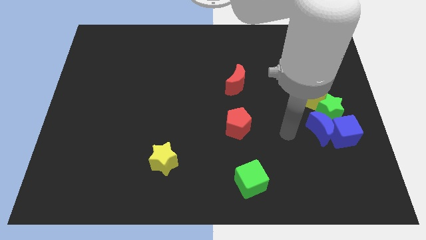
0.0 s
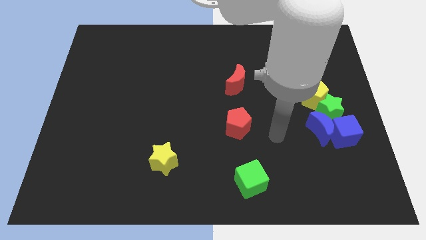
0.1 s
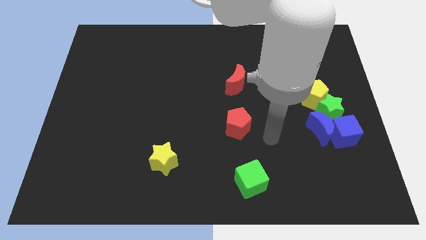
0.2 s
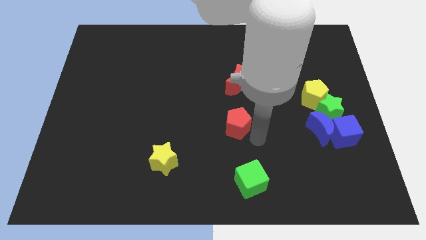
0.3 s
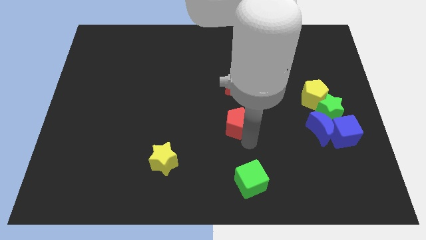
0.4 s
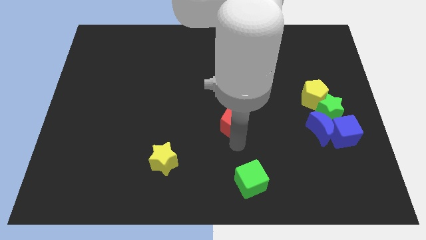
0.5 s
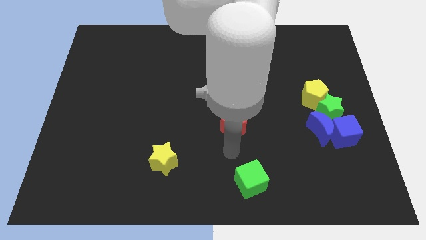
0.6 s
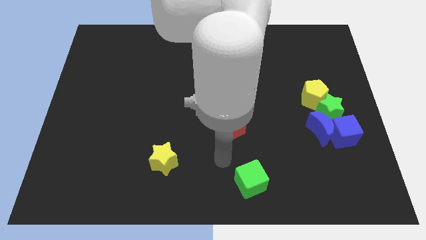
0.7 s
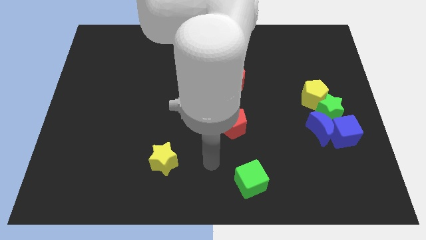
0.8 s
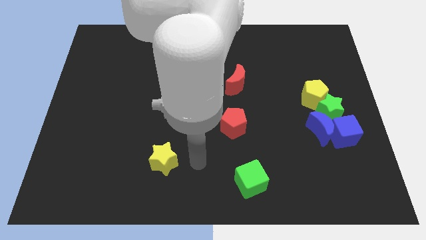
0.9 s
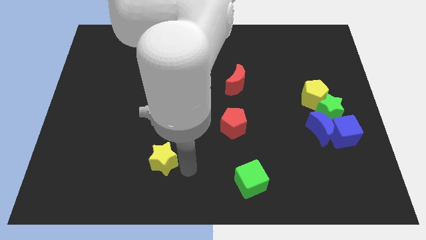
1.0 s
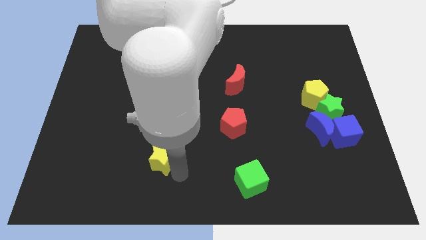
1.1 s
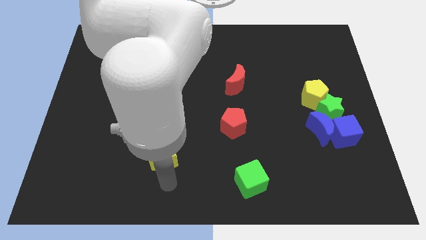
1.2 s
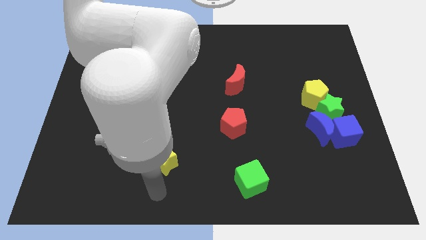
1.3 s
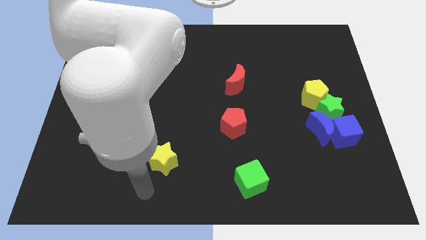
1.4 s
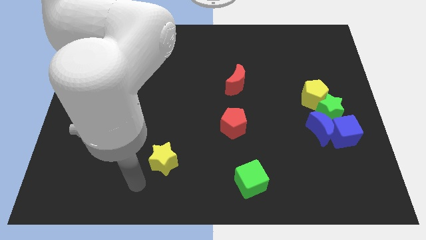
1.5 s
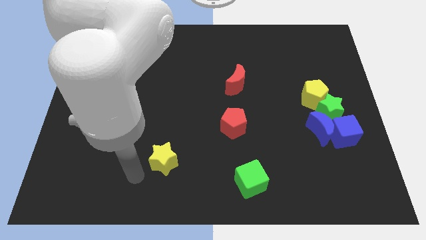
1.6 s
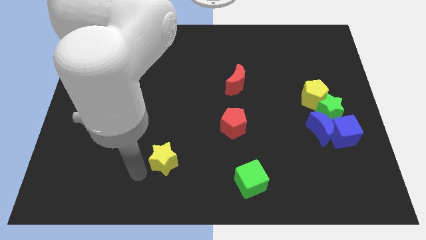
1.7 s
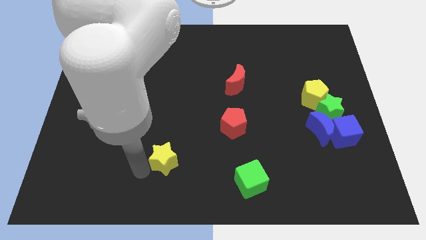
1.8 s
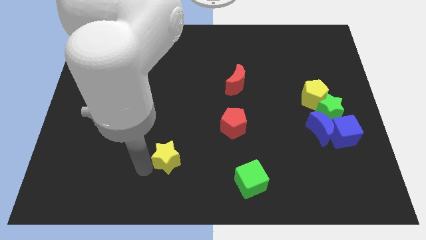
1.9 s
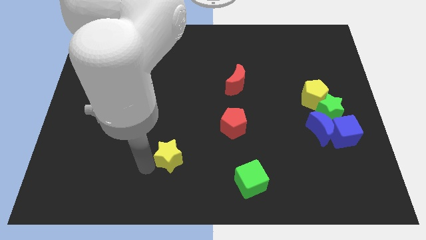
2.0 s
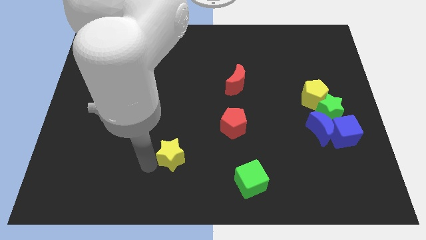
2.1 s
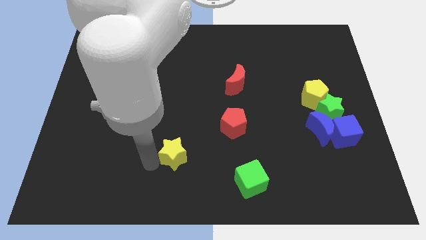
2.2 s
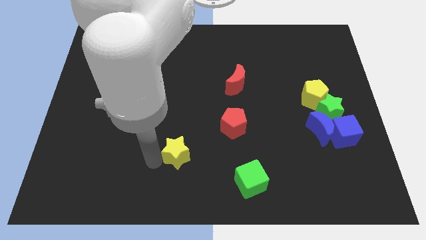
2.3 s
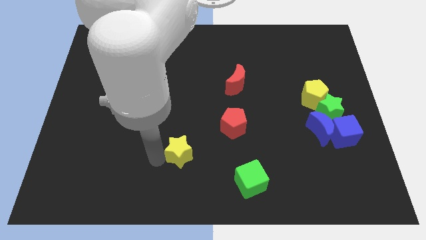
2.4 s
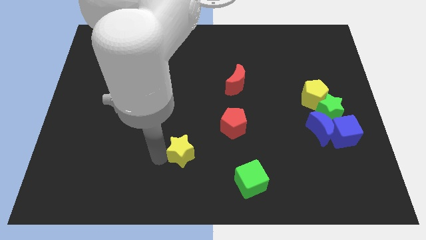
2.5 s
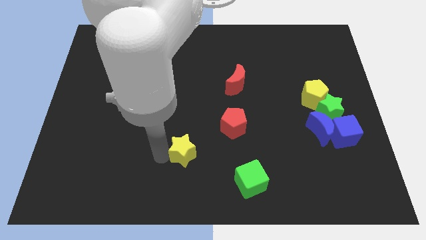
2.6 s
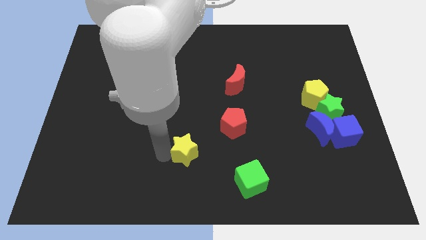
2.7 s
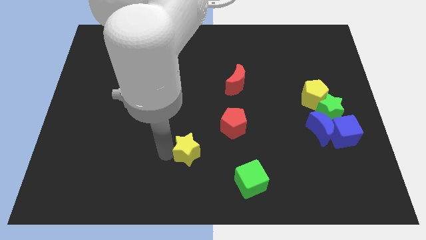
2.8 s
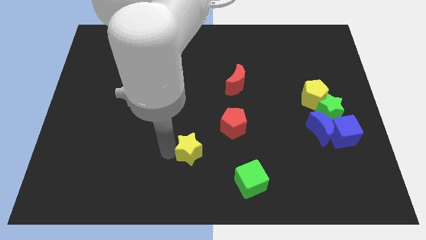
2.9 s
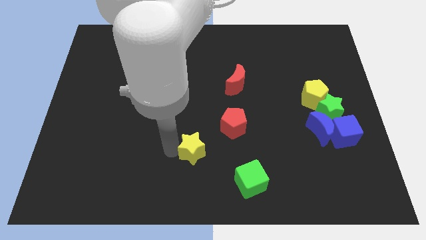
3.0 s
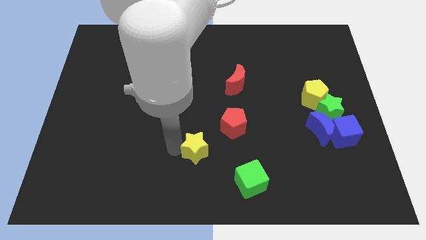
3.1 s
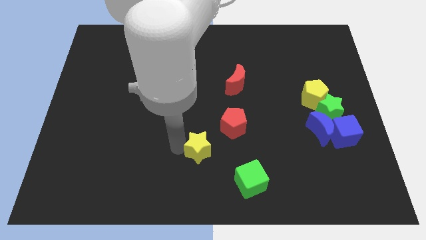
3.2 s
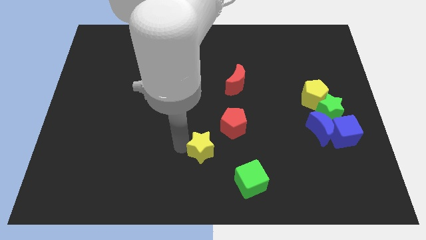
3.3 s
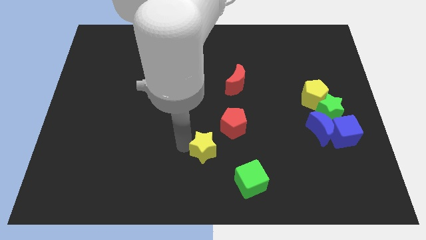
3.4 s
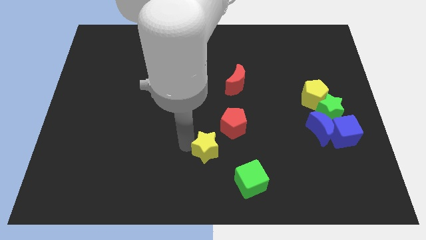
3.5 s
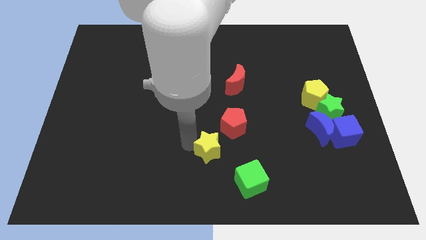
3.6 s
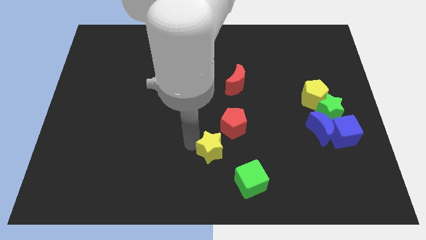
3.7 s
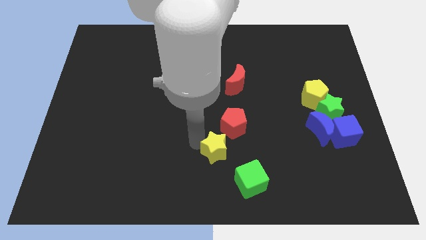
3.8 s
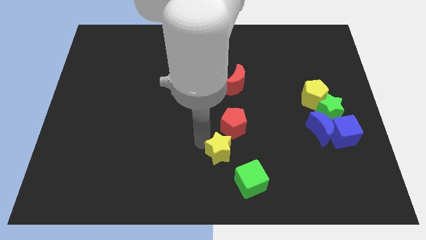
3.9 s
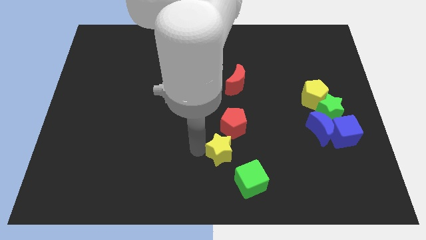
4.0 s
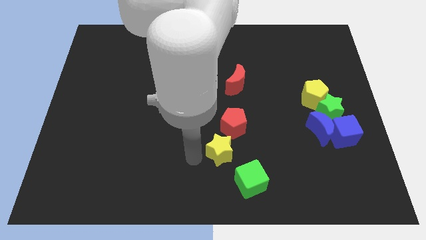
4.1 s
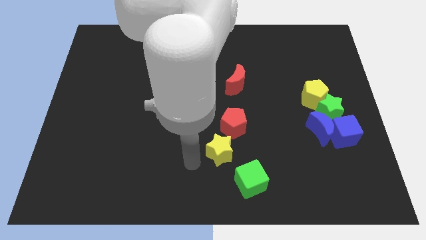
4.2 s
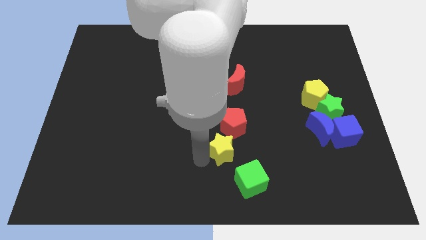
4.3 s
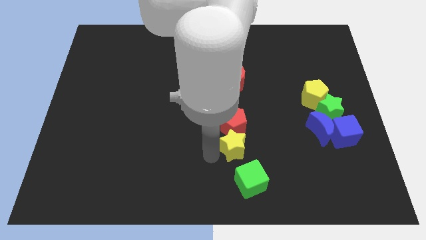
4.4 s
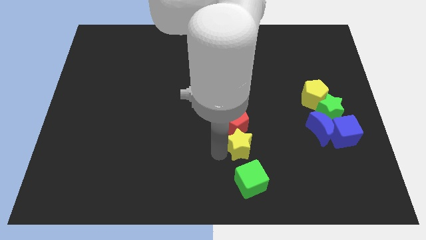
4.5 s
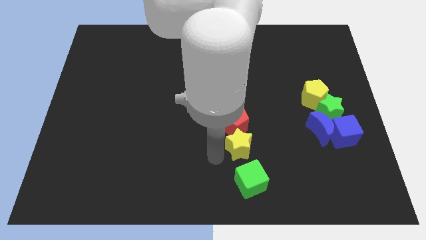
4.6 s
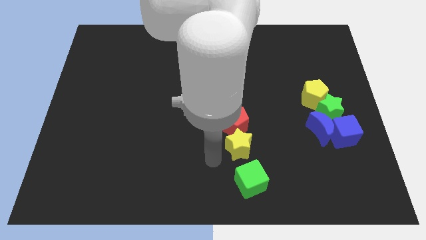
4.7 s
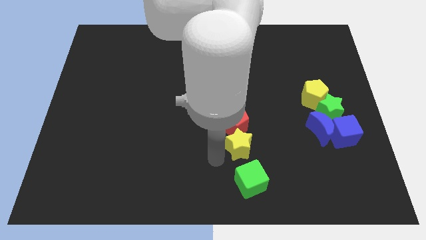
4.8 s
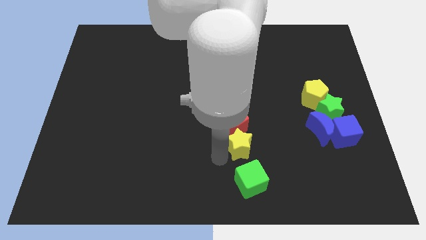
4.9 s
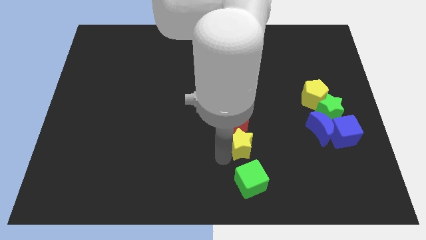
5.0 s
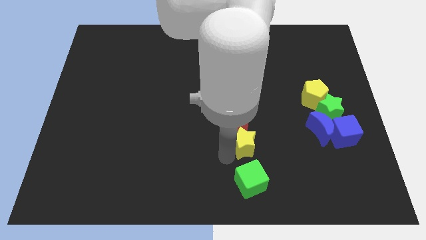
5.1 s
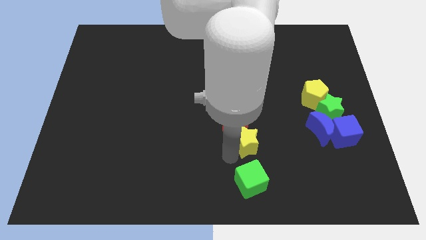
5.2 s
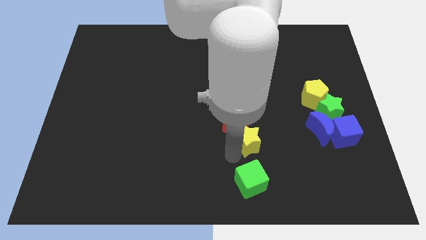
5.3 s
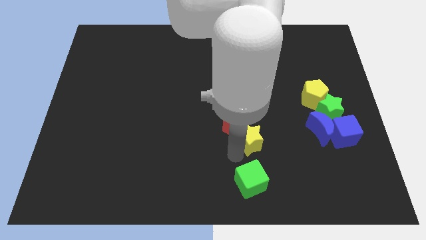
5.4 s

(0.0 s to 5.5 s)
slide the yellow star to the right side of the red pentagon

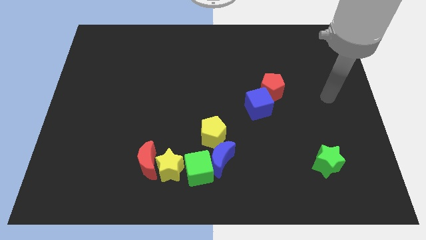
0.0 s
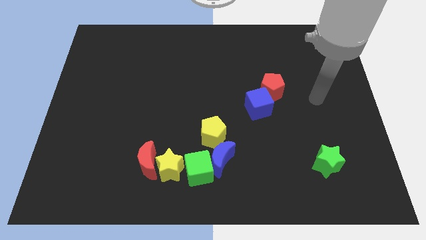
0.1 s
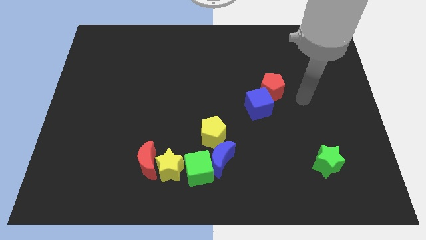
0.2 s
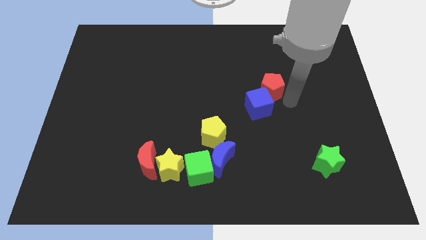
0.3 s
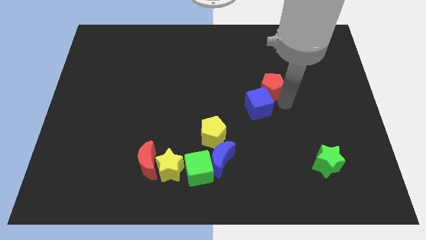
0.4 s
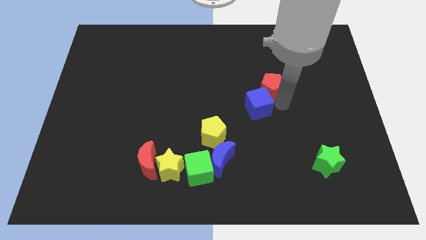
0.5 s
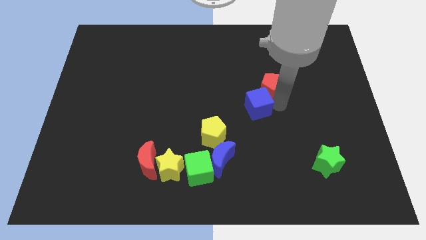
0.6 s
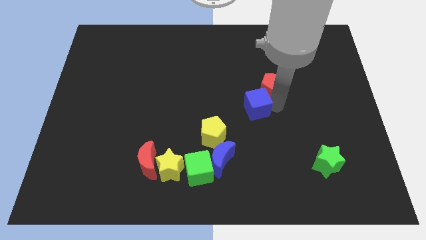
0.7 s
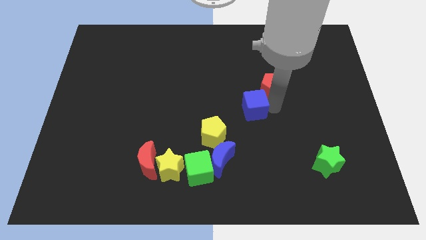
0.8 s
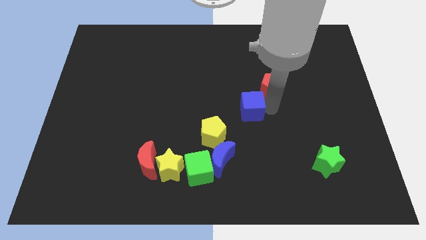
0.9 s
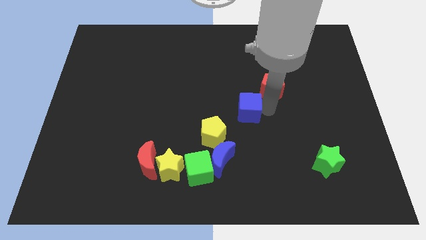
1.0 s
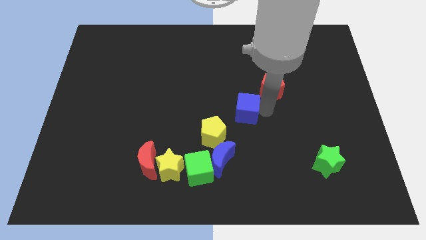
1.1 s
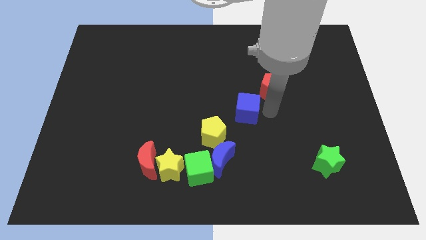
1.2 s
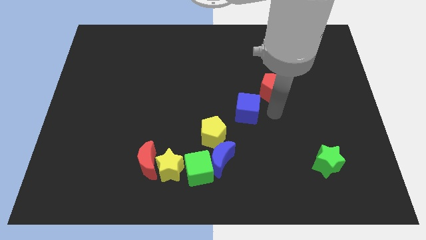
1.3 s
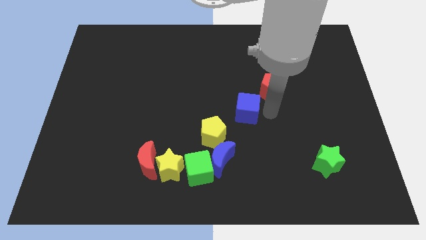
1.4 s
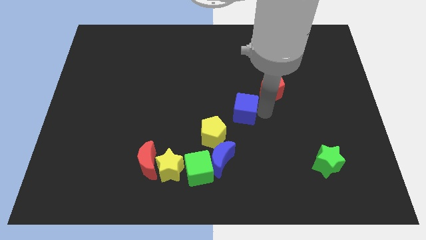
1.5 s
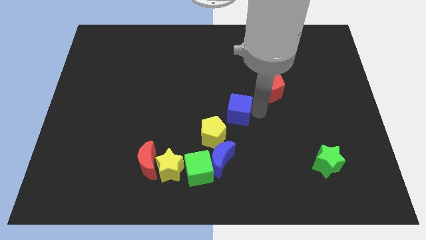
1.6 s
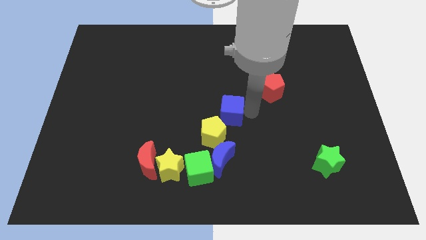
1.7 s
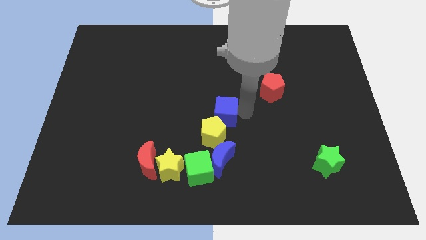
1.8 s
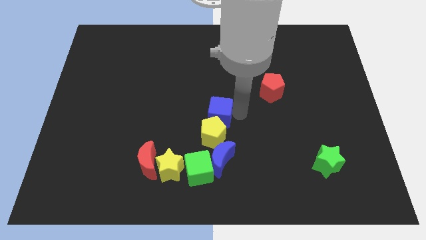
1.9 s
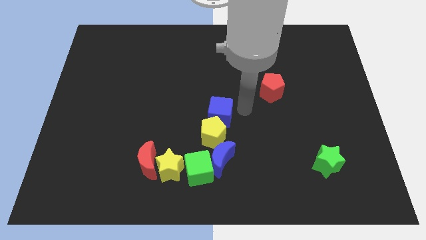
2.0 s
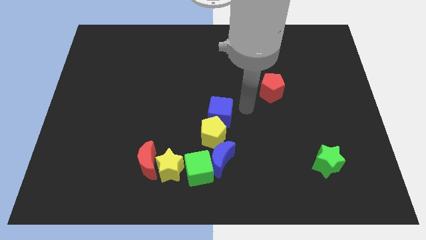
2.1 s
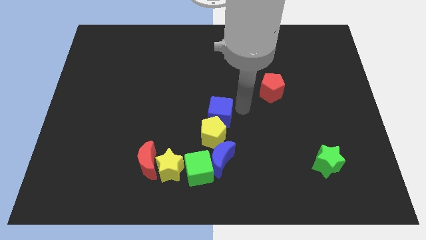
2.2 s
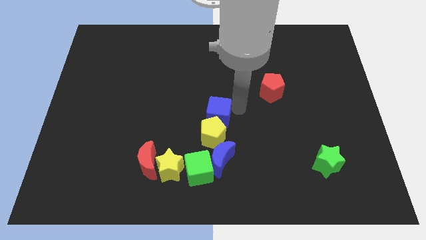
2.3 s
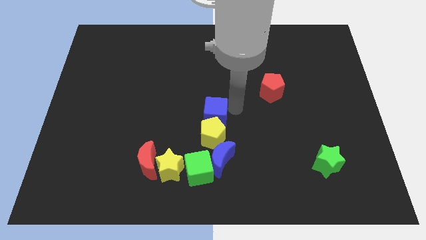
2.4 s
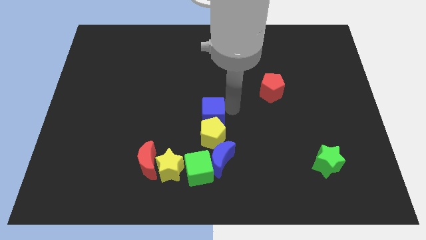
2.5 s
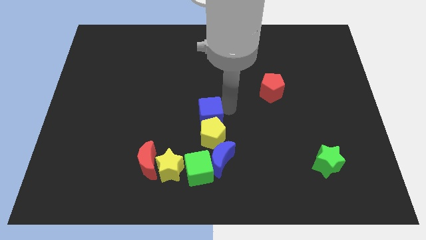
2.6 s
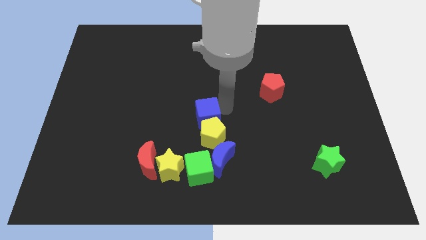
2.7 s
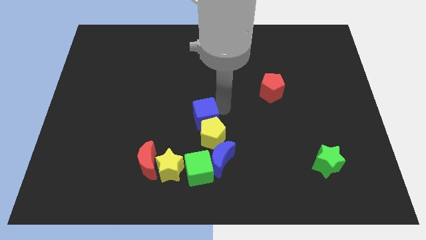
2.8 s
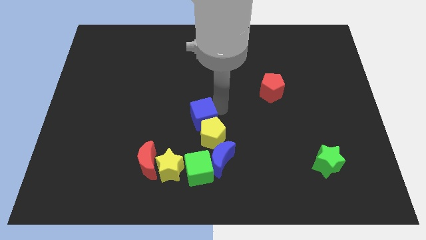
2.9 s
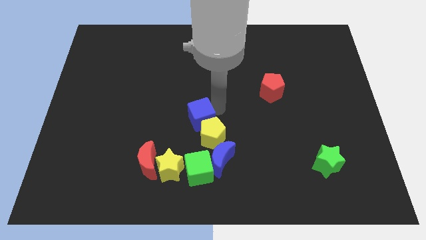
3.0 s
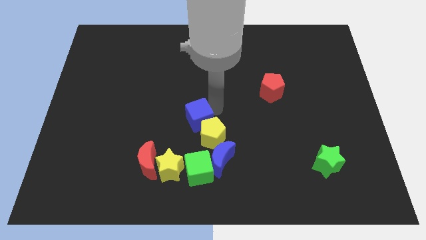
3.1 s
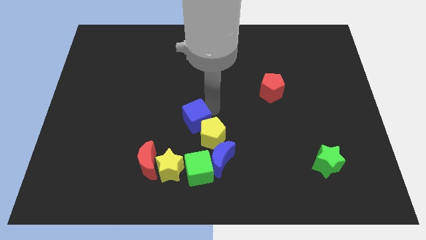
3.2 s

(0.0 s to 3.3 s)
push the blue cube to the top left side of the blue moon
